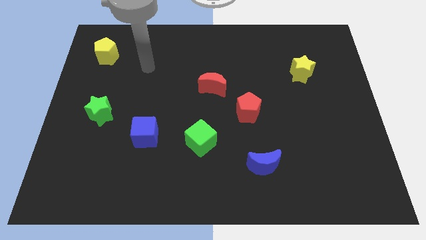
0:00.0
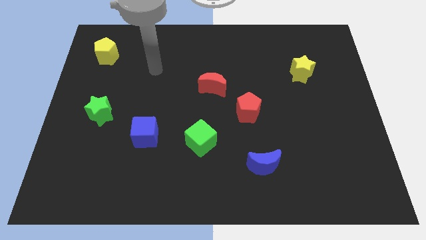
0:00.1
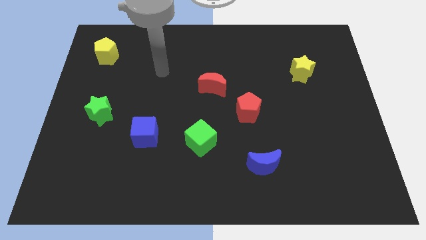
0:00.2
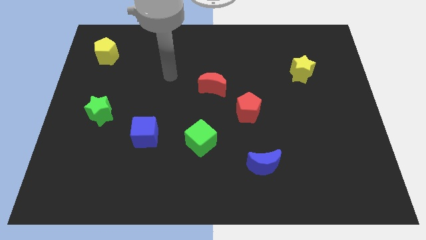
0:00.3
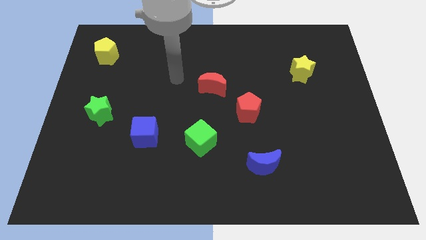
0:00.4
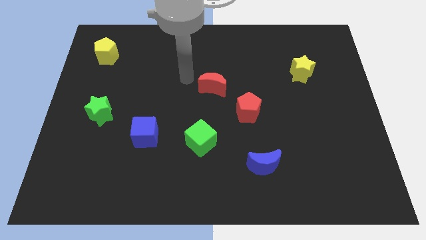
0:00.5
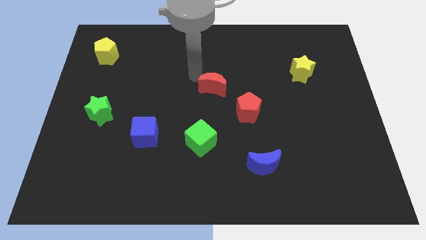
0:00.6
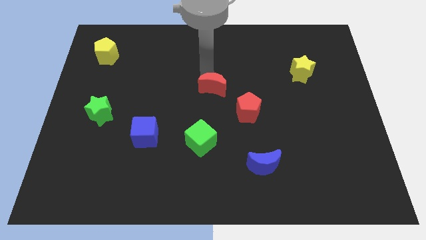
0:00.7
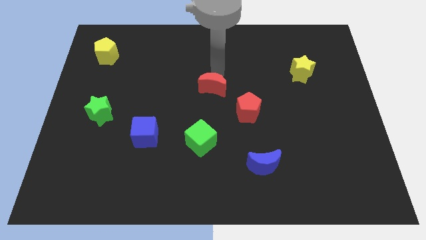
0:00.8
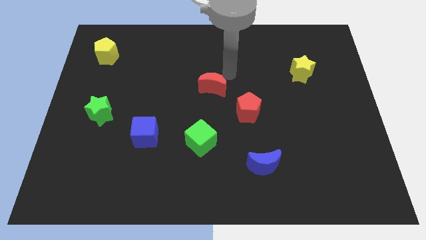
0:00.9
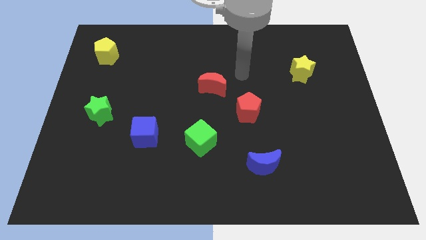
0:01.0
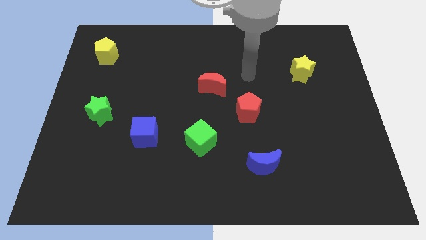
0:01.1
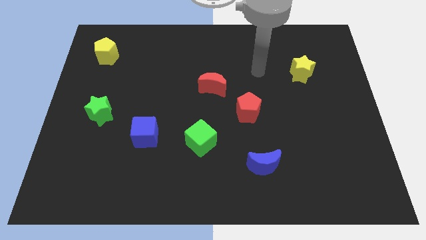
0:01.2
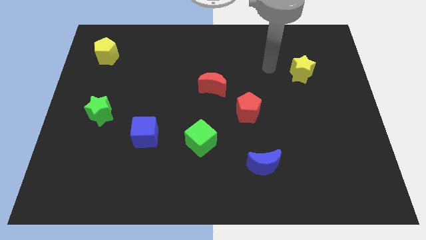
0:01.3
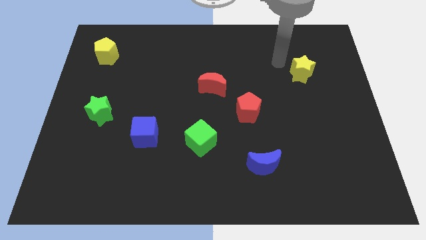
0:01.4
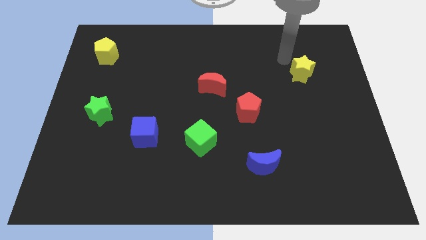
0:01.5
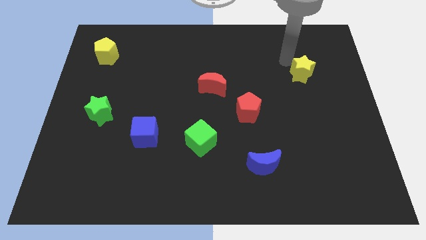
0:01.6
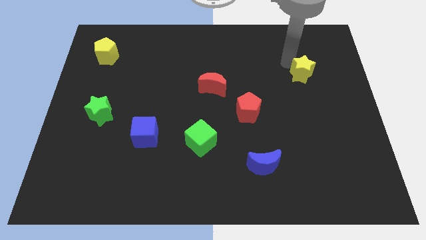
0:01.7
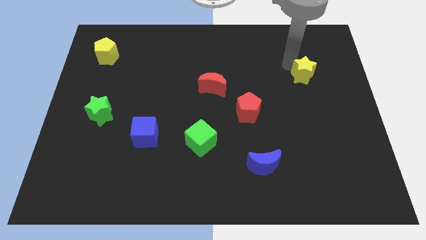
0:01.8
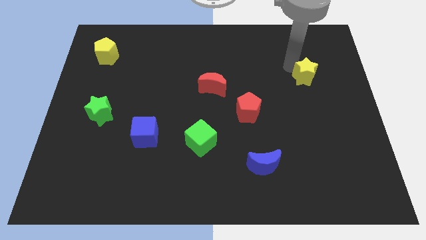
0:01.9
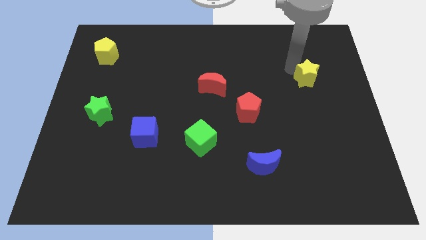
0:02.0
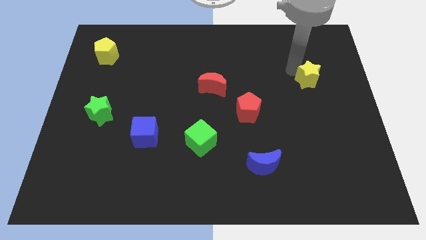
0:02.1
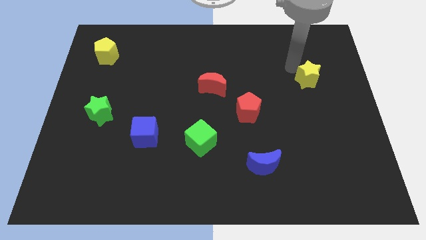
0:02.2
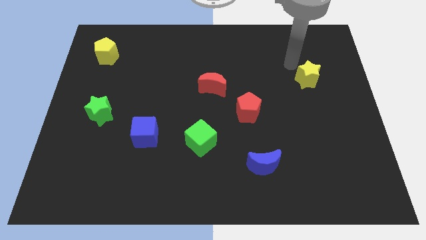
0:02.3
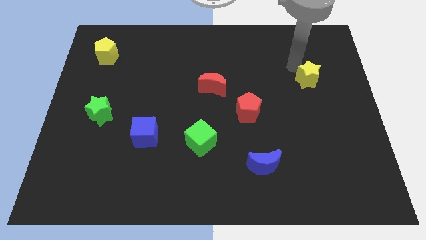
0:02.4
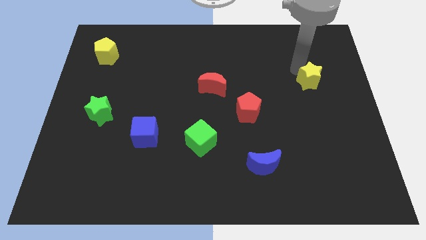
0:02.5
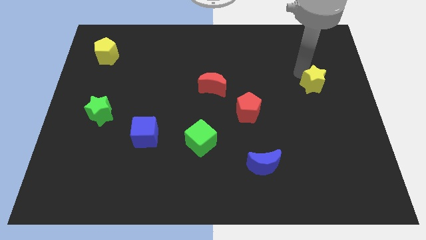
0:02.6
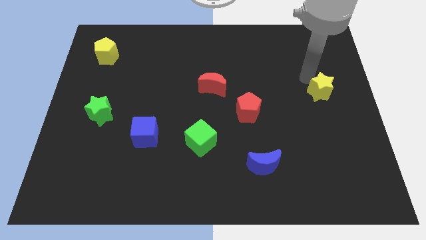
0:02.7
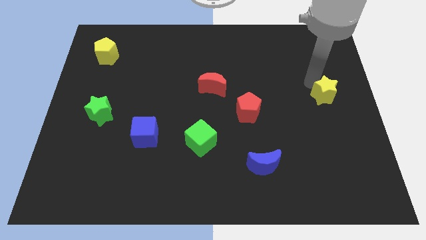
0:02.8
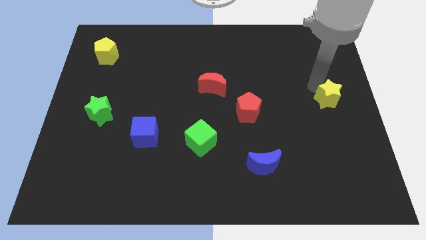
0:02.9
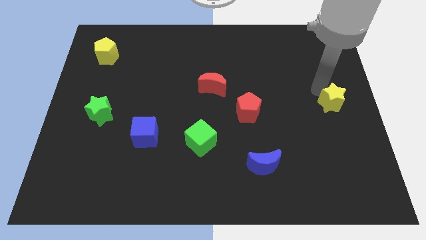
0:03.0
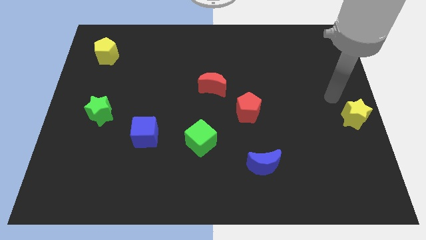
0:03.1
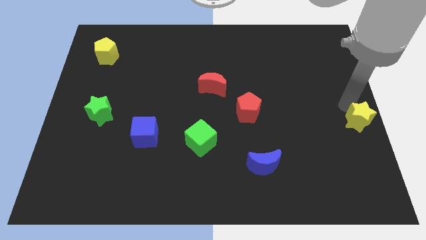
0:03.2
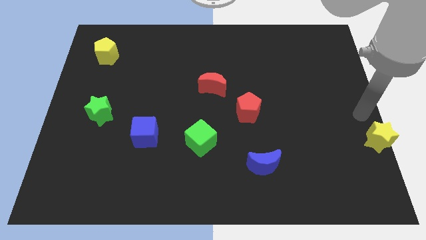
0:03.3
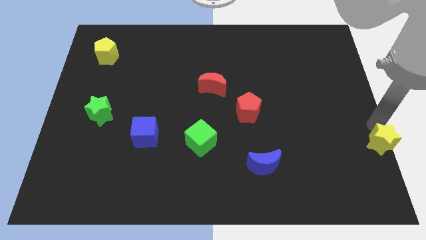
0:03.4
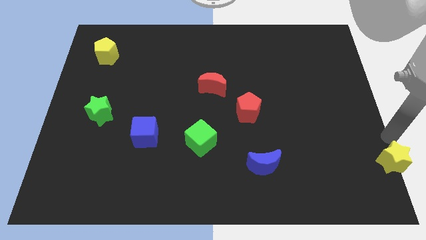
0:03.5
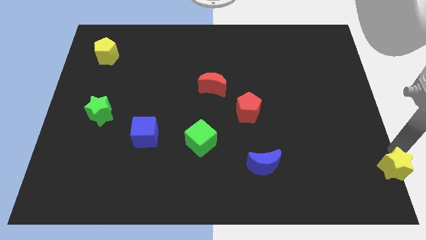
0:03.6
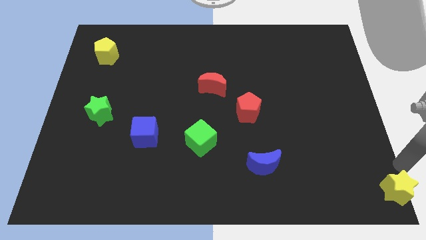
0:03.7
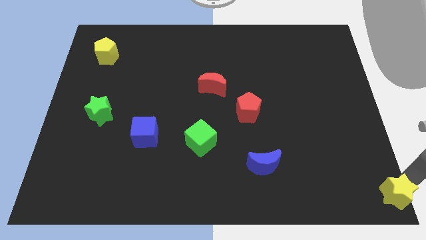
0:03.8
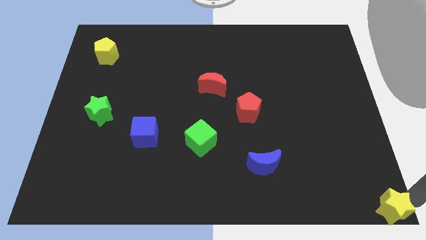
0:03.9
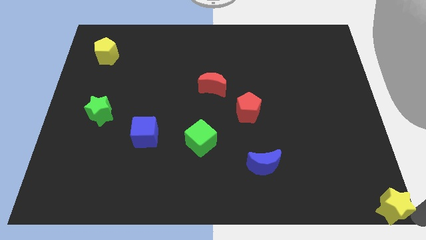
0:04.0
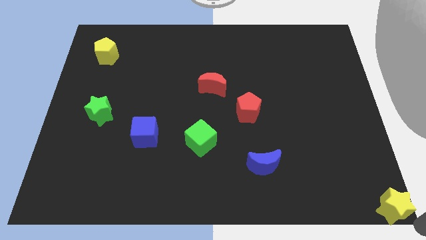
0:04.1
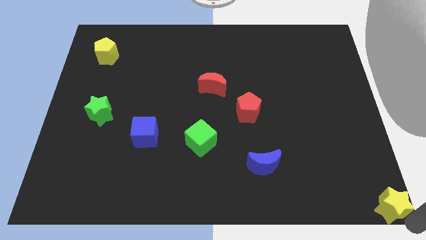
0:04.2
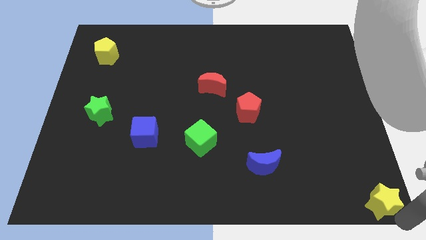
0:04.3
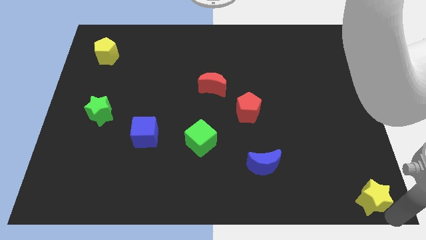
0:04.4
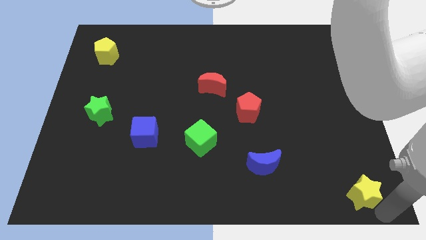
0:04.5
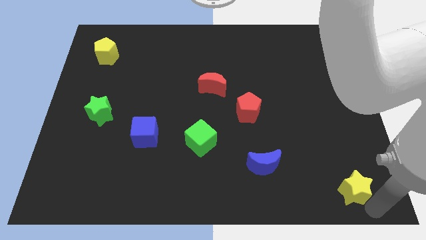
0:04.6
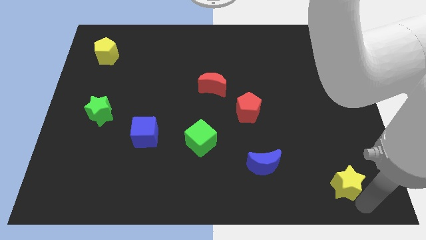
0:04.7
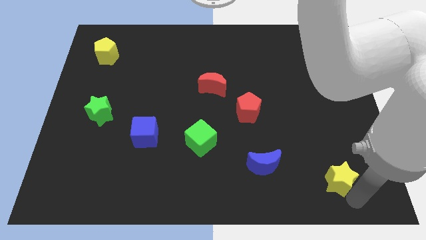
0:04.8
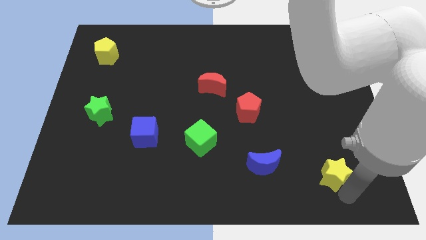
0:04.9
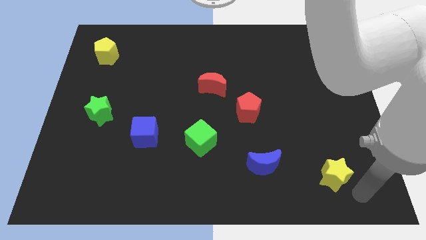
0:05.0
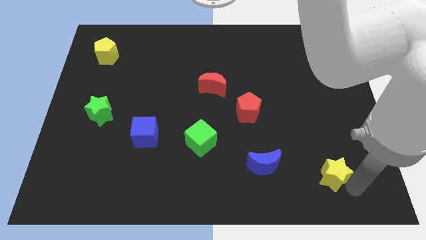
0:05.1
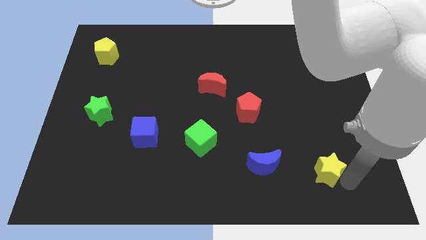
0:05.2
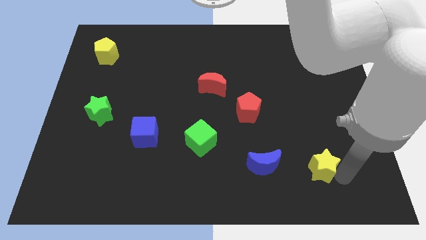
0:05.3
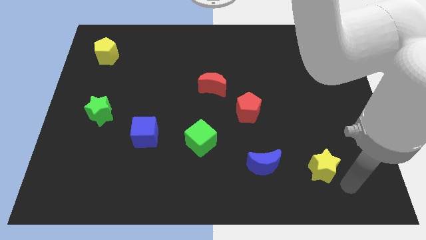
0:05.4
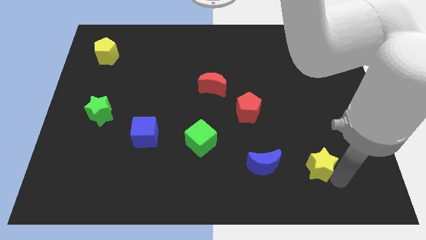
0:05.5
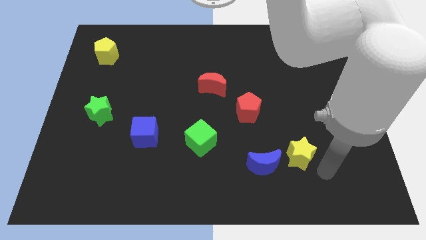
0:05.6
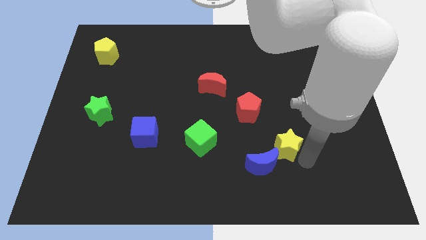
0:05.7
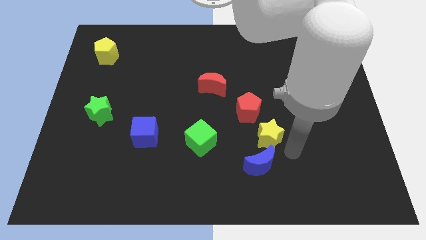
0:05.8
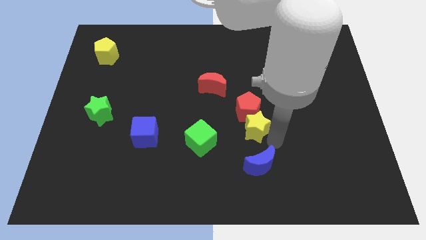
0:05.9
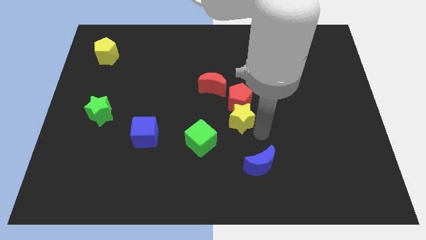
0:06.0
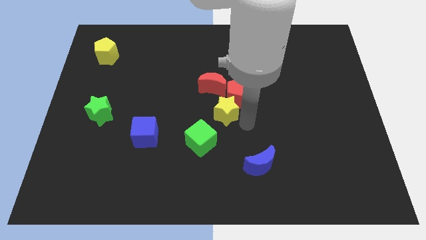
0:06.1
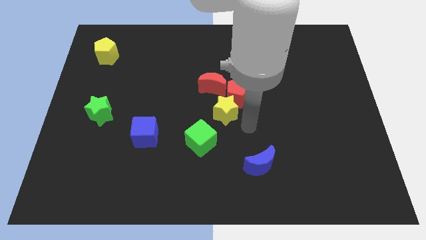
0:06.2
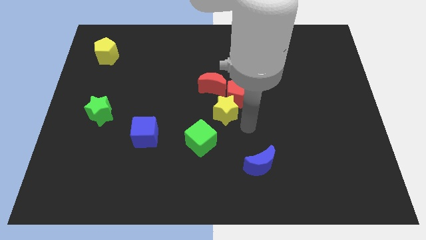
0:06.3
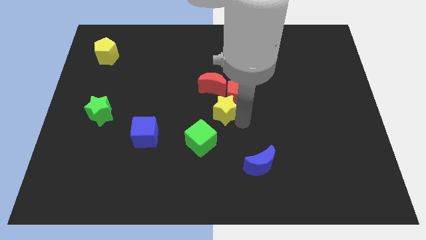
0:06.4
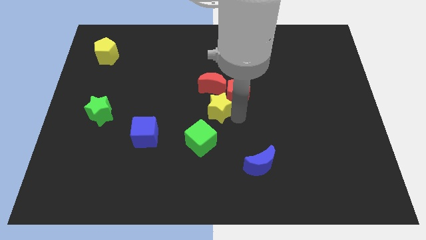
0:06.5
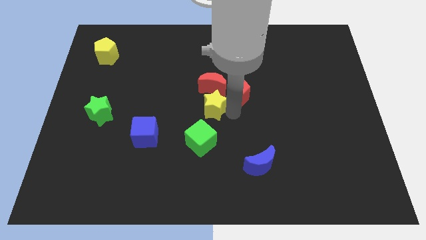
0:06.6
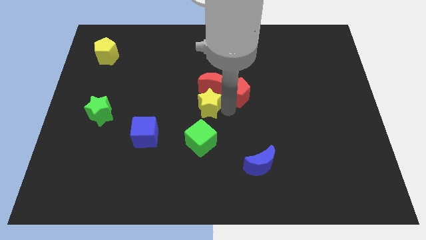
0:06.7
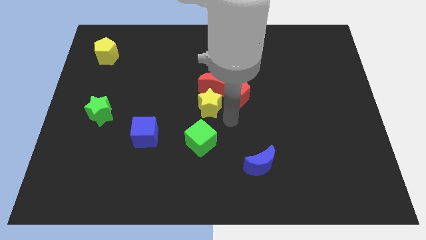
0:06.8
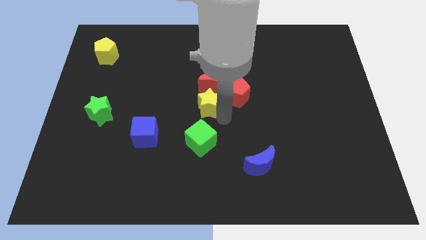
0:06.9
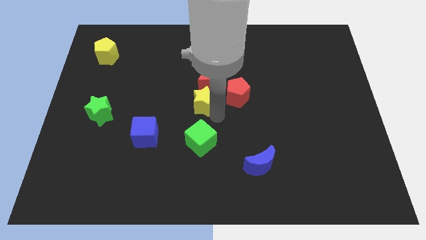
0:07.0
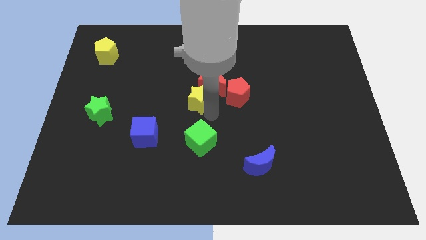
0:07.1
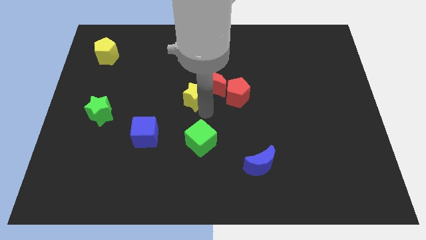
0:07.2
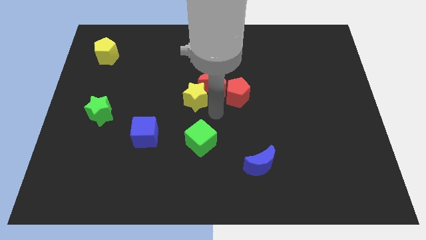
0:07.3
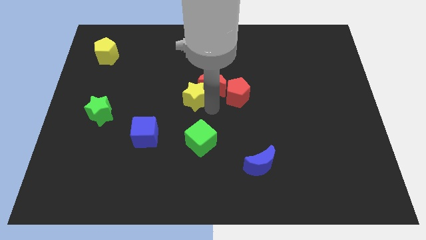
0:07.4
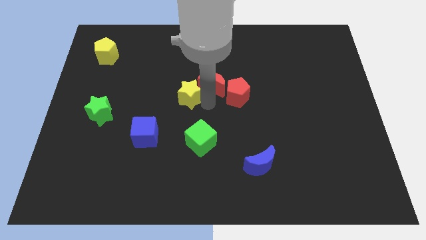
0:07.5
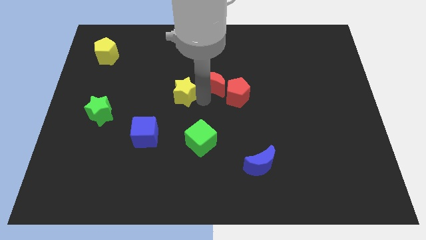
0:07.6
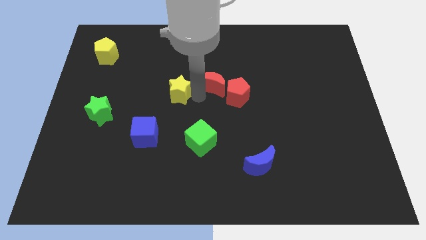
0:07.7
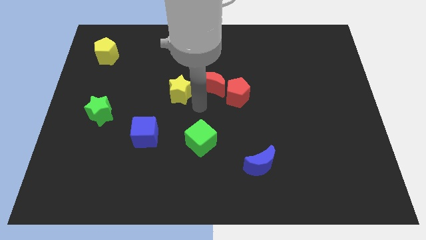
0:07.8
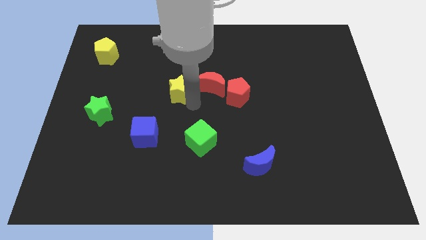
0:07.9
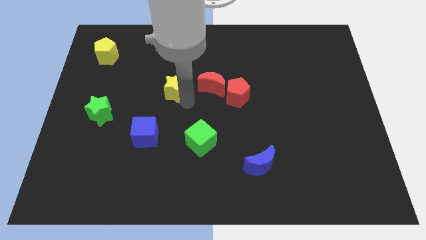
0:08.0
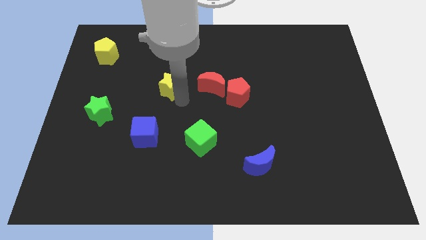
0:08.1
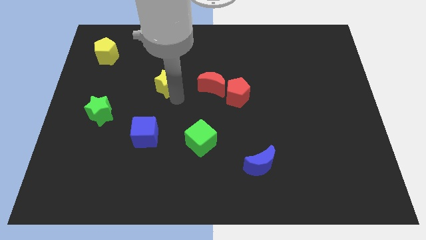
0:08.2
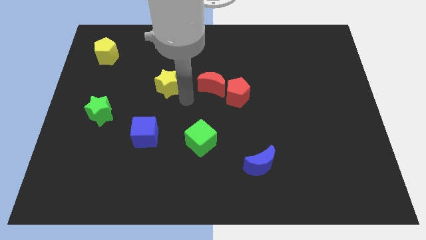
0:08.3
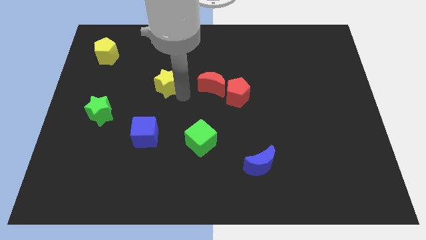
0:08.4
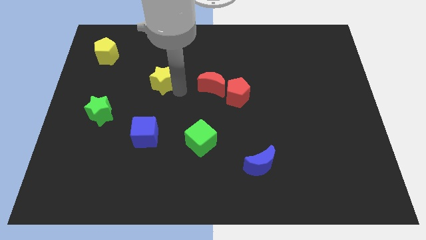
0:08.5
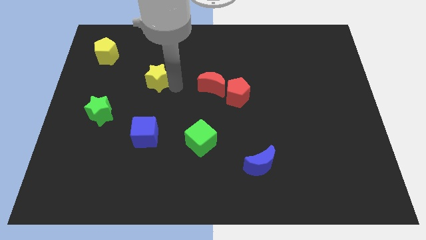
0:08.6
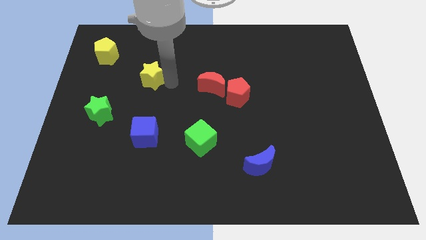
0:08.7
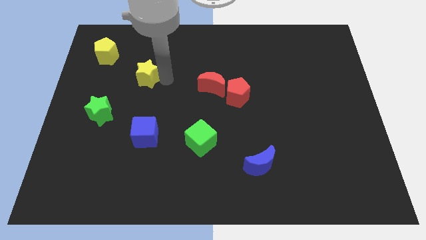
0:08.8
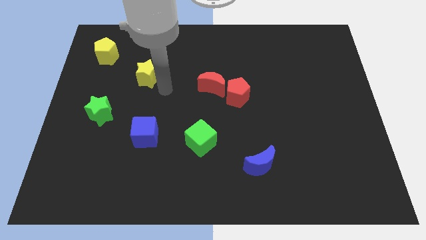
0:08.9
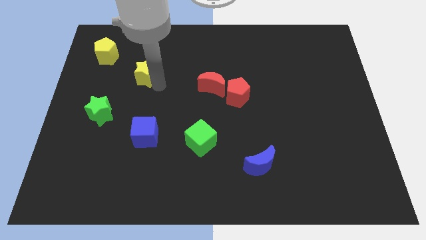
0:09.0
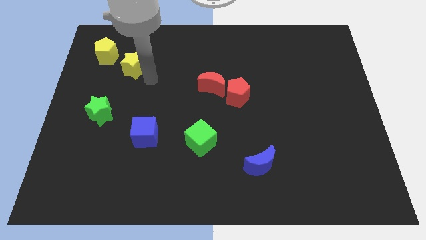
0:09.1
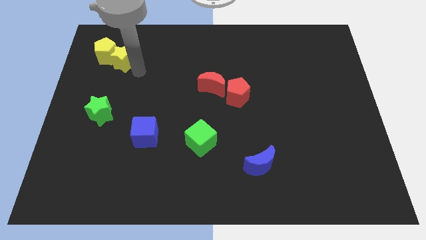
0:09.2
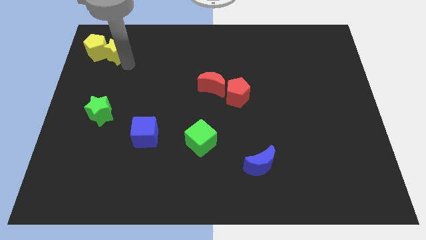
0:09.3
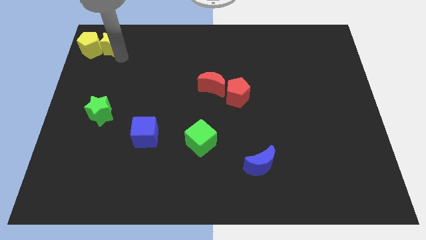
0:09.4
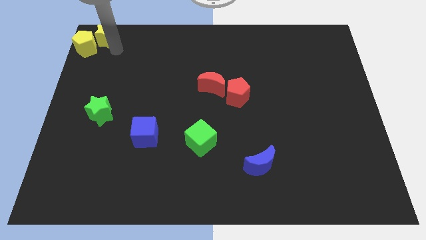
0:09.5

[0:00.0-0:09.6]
move the yellow star to the top left corner
